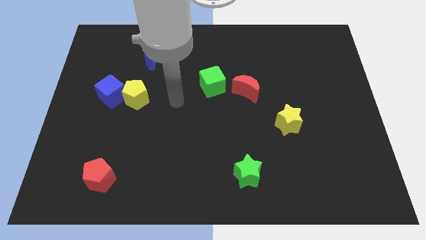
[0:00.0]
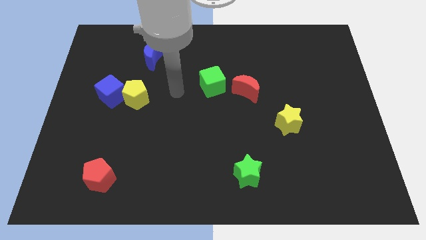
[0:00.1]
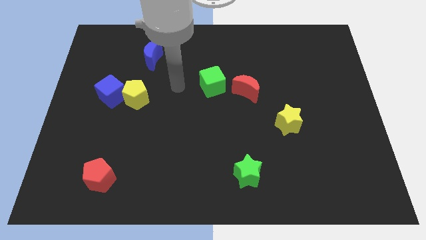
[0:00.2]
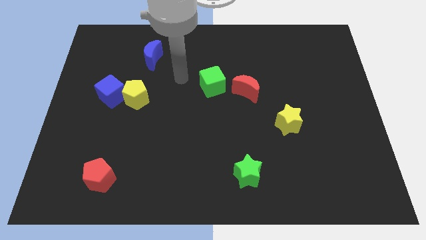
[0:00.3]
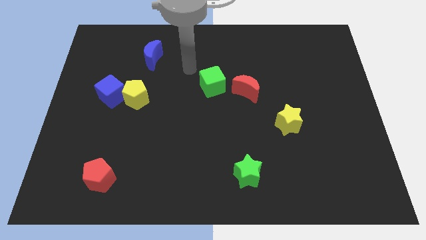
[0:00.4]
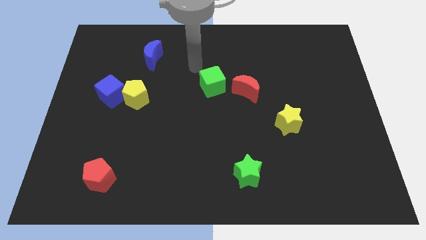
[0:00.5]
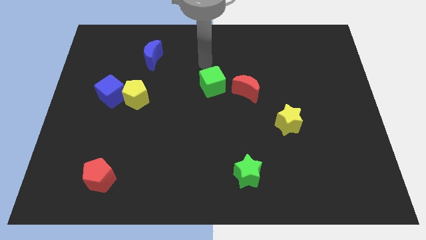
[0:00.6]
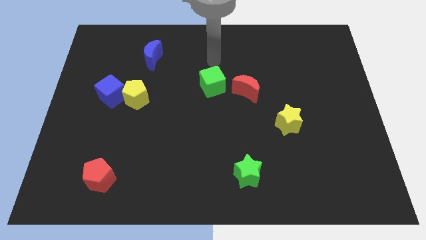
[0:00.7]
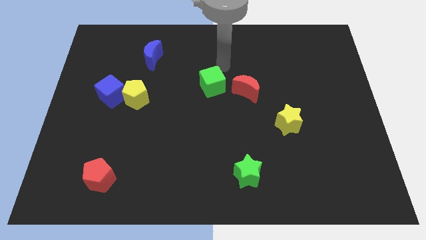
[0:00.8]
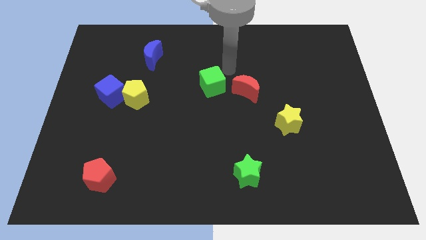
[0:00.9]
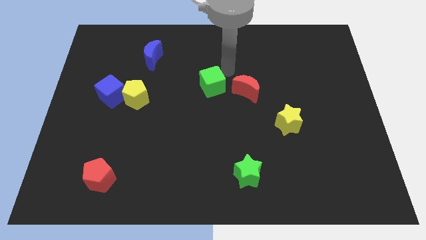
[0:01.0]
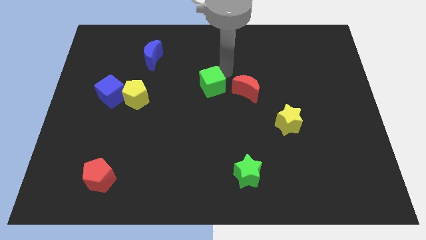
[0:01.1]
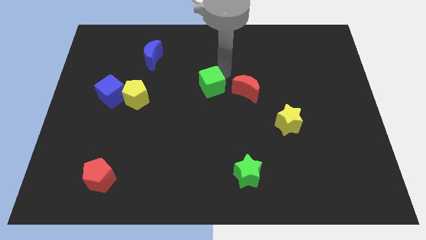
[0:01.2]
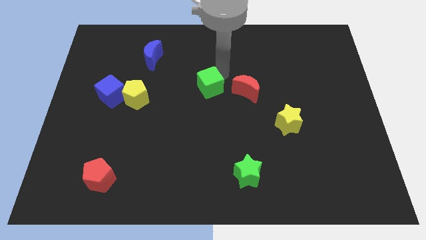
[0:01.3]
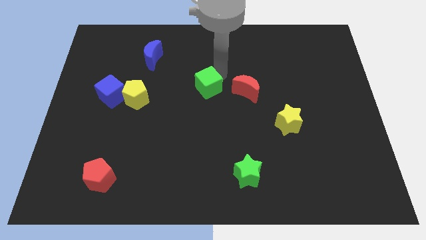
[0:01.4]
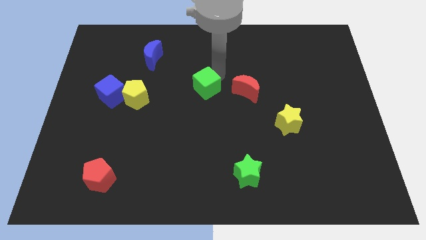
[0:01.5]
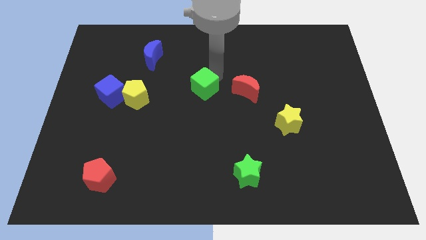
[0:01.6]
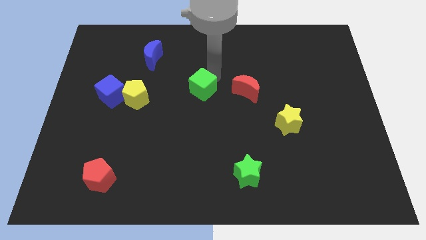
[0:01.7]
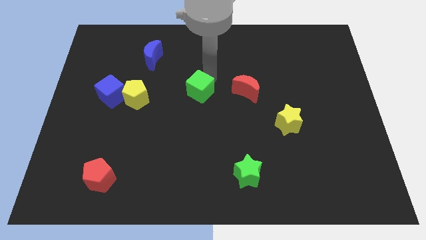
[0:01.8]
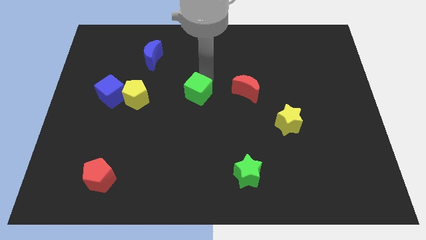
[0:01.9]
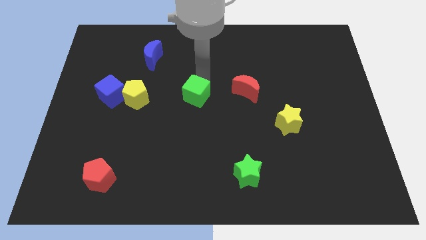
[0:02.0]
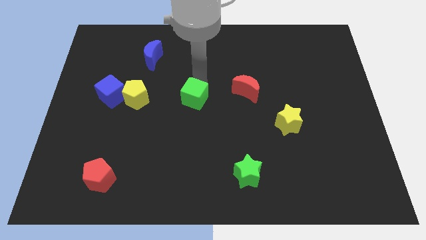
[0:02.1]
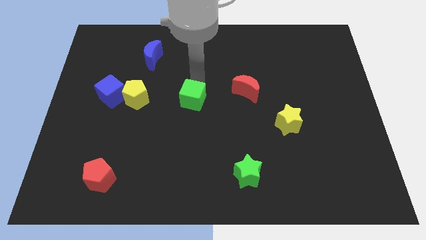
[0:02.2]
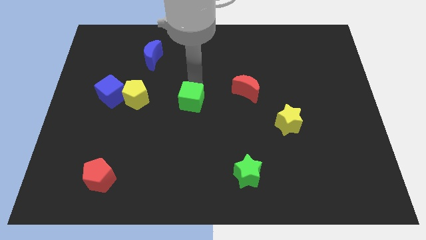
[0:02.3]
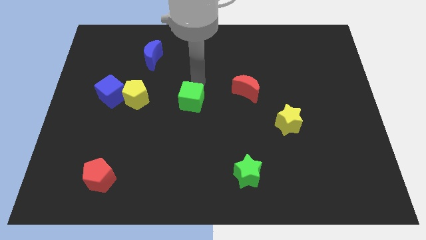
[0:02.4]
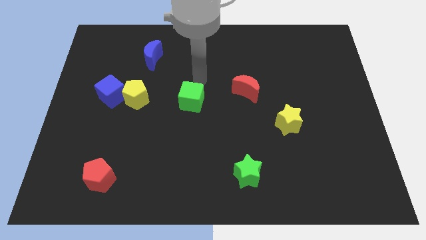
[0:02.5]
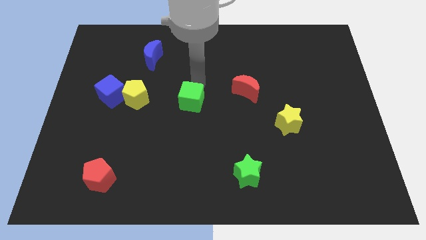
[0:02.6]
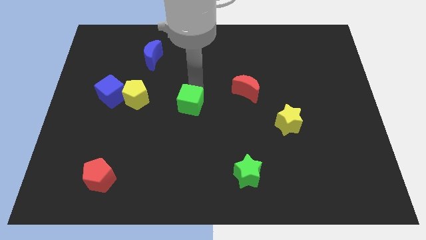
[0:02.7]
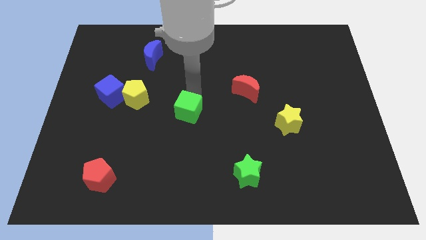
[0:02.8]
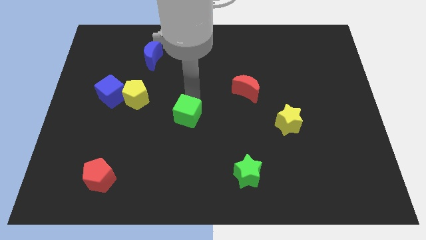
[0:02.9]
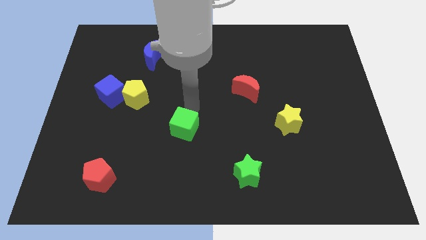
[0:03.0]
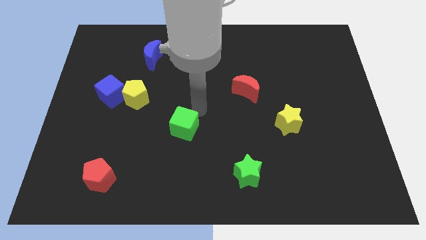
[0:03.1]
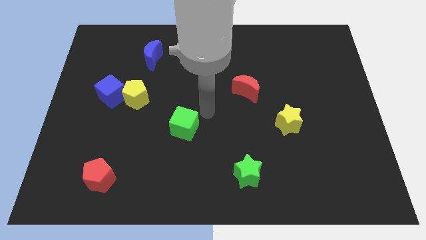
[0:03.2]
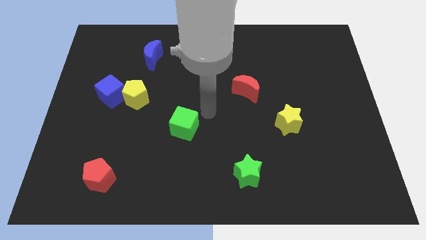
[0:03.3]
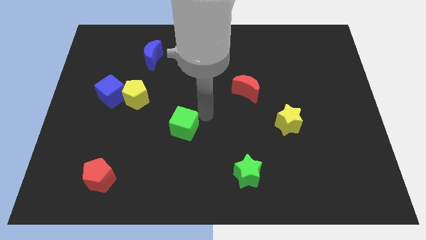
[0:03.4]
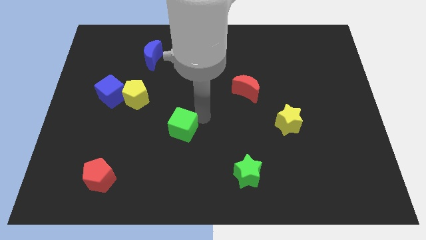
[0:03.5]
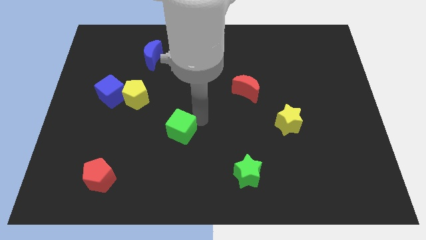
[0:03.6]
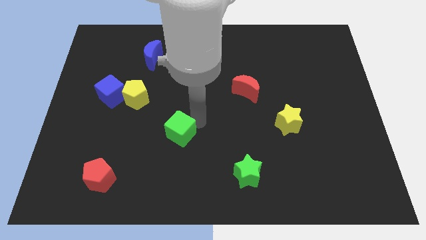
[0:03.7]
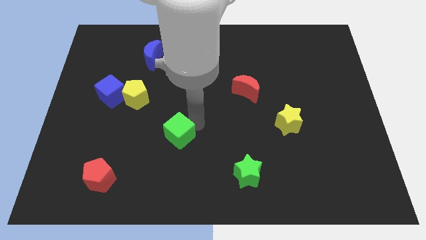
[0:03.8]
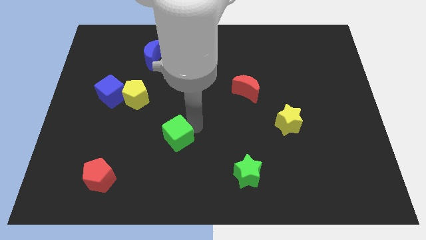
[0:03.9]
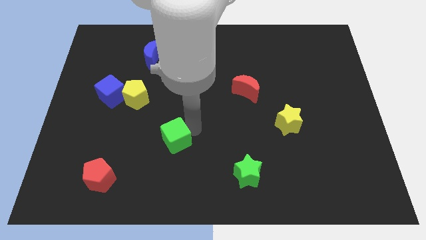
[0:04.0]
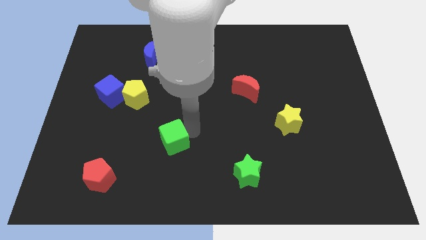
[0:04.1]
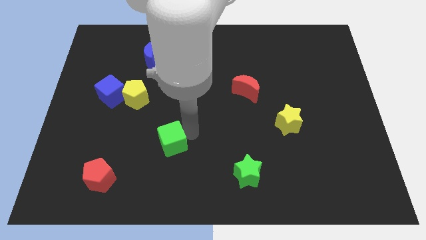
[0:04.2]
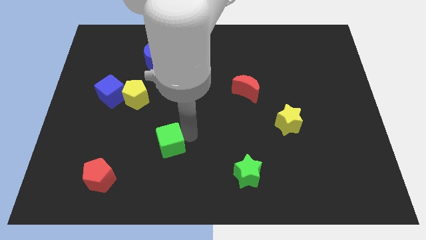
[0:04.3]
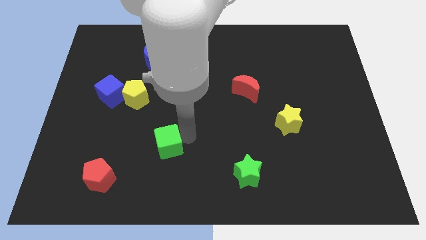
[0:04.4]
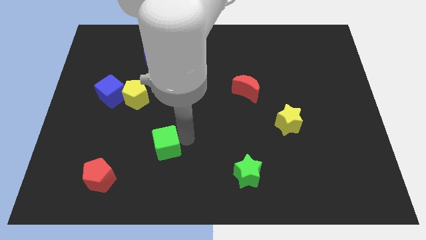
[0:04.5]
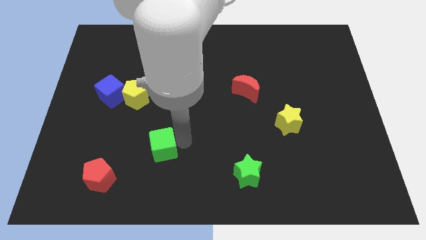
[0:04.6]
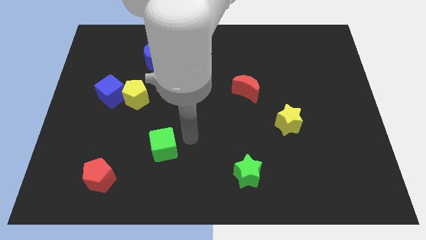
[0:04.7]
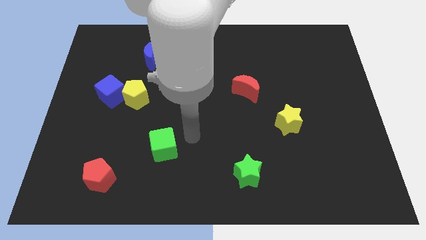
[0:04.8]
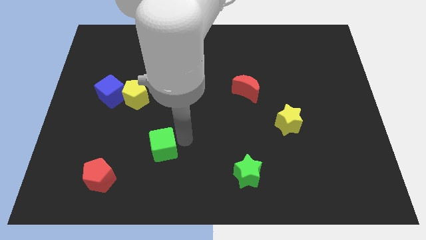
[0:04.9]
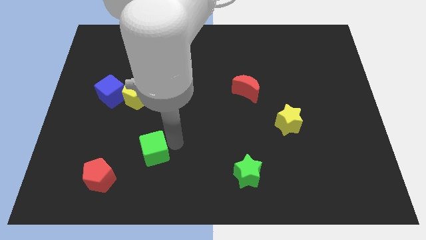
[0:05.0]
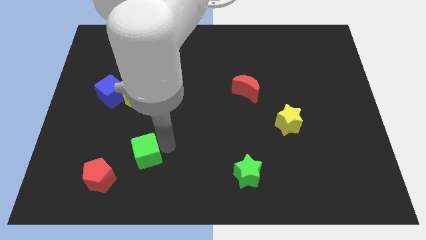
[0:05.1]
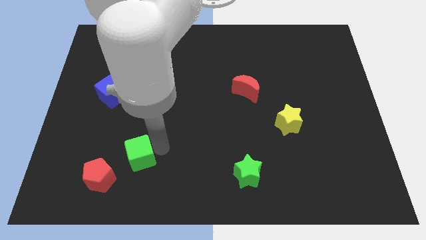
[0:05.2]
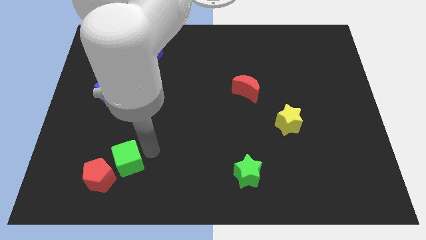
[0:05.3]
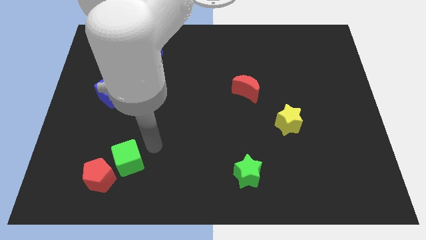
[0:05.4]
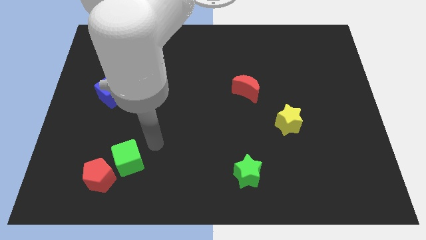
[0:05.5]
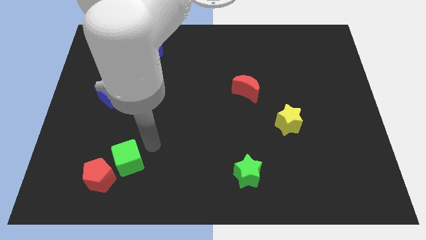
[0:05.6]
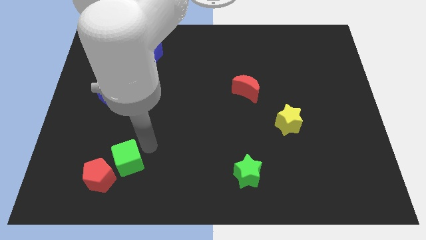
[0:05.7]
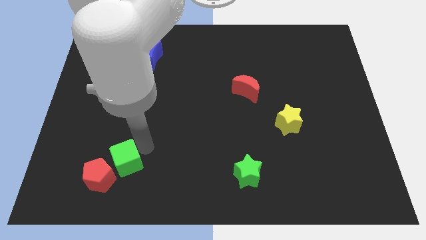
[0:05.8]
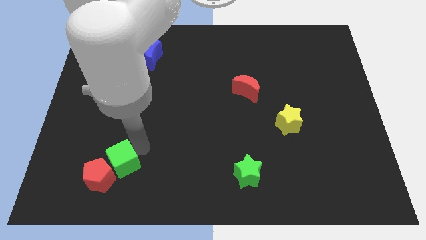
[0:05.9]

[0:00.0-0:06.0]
move the green cube close to the red pentagon

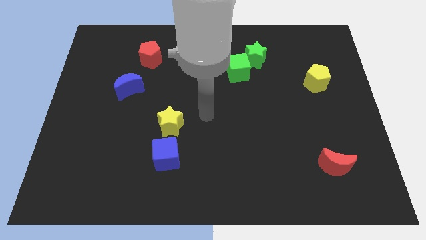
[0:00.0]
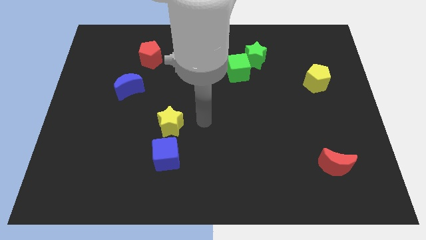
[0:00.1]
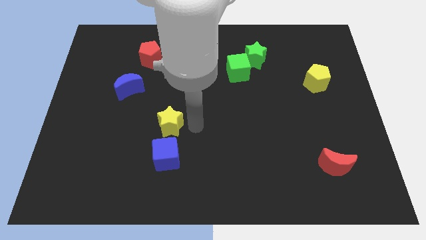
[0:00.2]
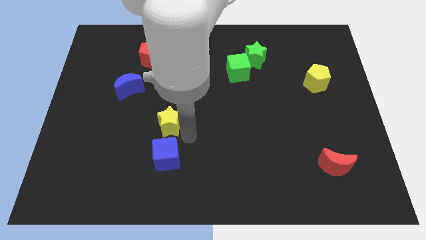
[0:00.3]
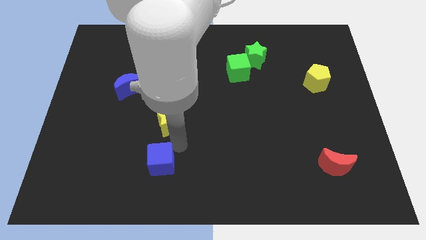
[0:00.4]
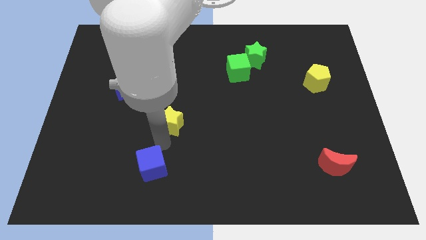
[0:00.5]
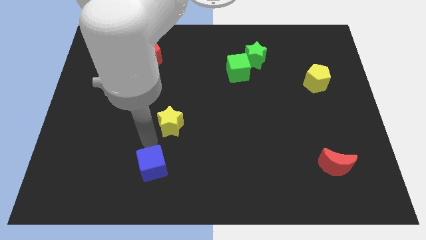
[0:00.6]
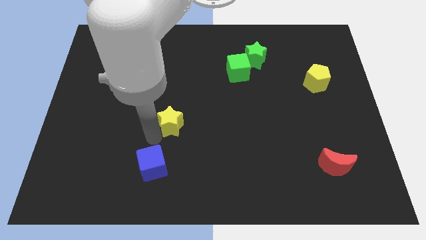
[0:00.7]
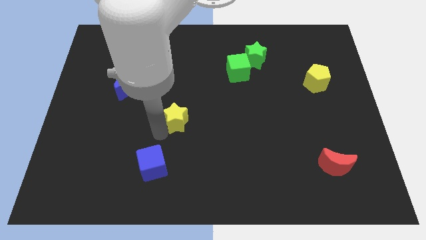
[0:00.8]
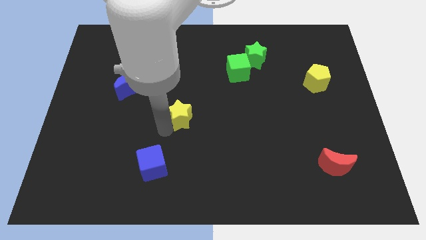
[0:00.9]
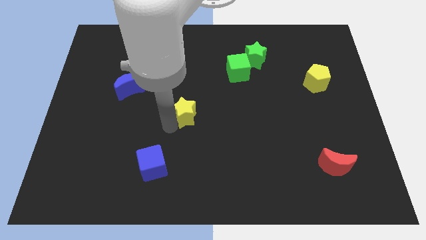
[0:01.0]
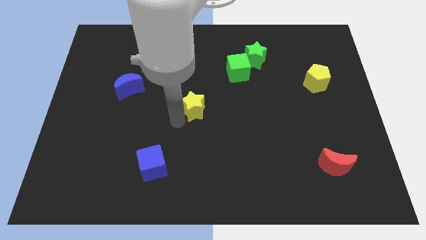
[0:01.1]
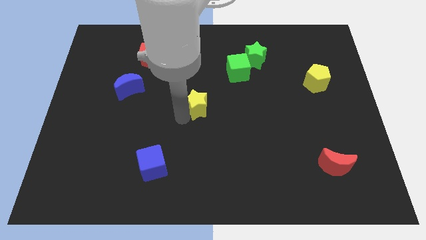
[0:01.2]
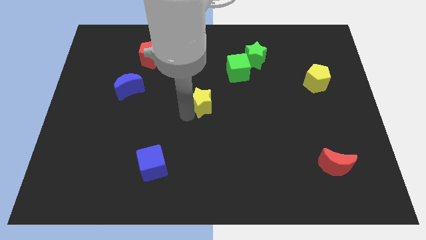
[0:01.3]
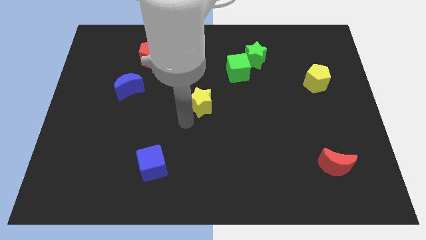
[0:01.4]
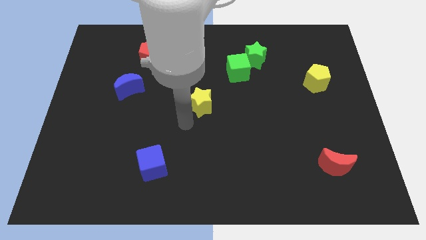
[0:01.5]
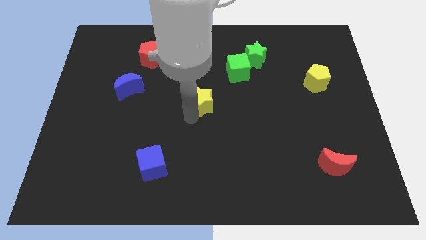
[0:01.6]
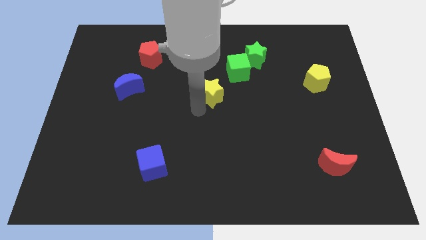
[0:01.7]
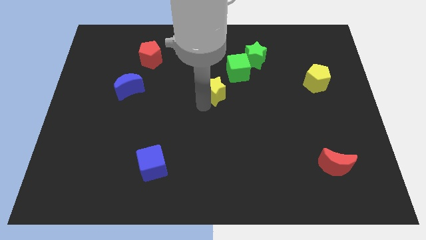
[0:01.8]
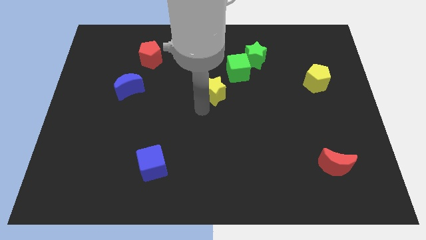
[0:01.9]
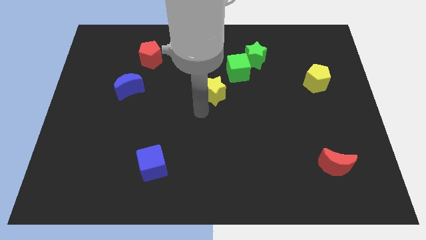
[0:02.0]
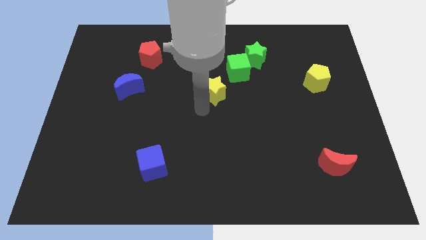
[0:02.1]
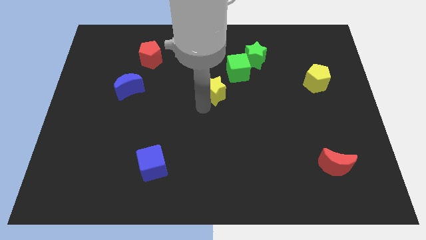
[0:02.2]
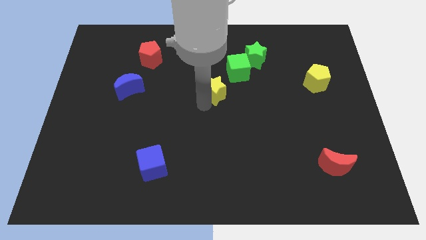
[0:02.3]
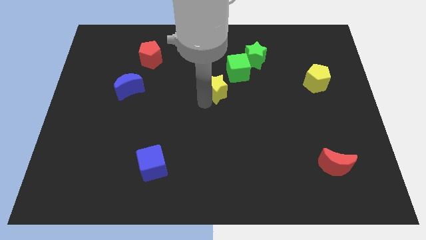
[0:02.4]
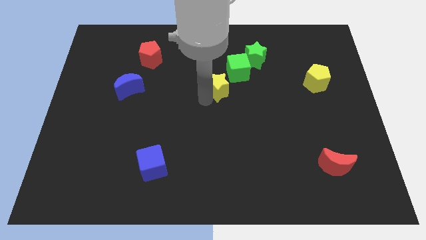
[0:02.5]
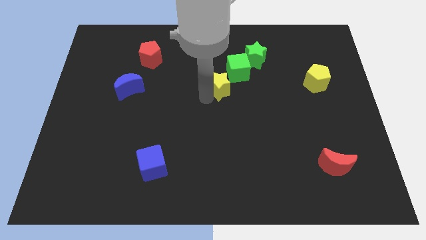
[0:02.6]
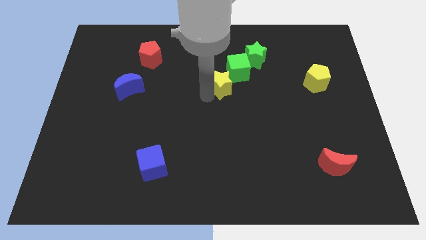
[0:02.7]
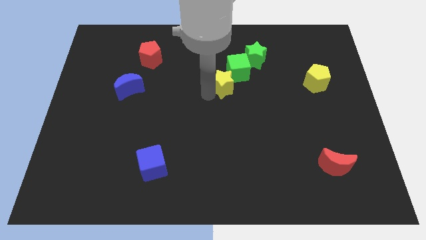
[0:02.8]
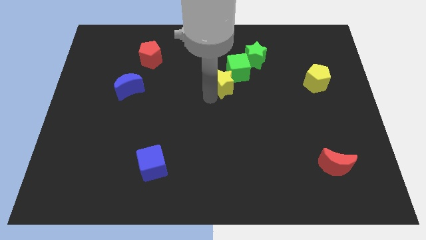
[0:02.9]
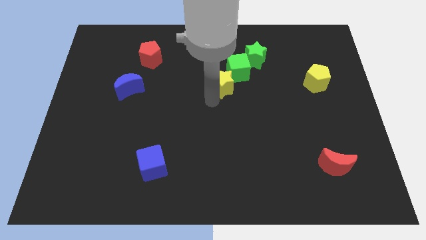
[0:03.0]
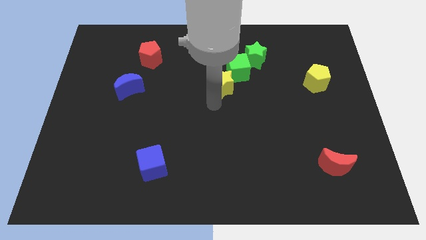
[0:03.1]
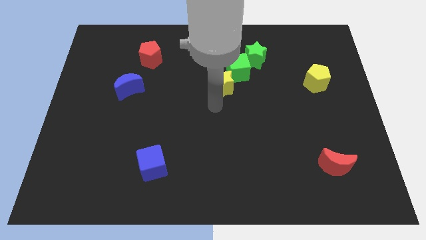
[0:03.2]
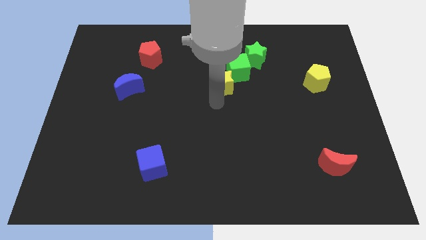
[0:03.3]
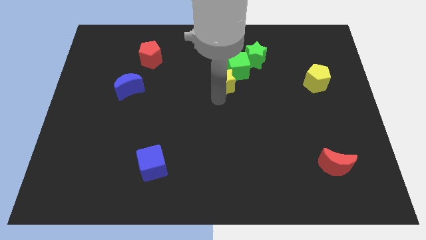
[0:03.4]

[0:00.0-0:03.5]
move the yellow star towards the green cube
